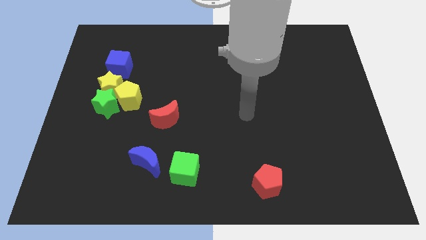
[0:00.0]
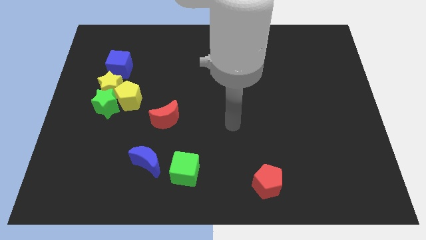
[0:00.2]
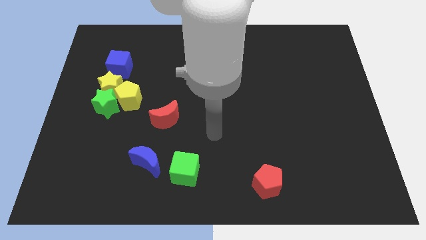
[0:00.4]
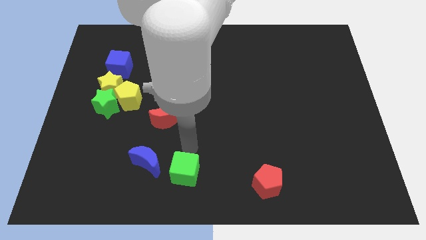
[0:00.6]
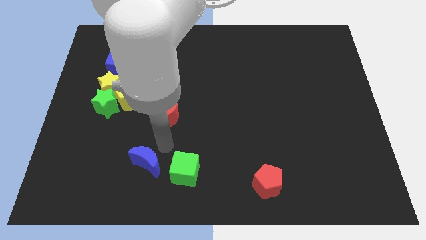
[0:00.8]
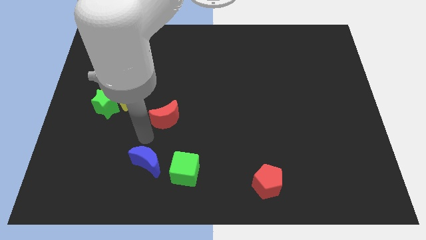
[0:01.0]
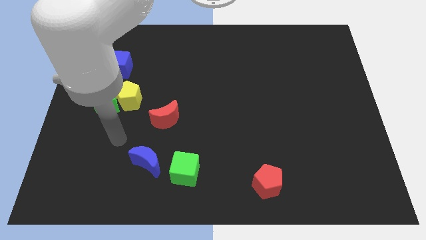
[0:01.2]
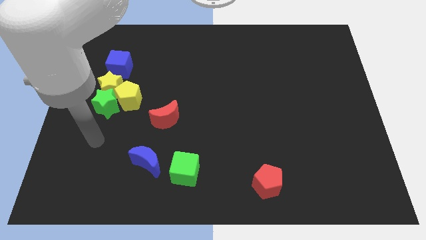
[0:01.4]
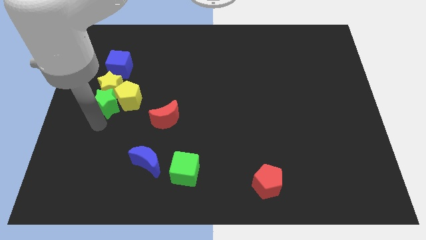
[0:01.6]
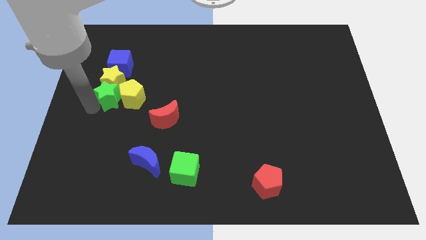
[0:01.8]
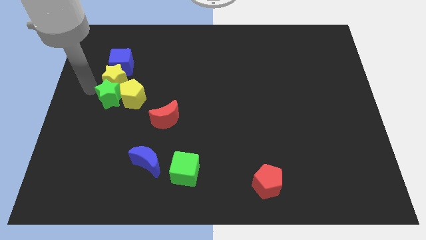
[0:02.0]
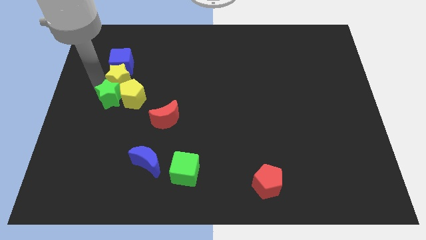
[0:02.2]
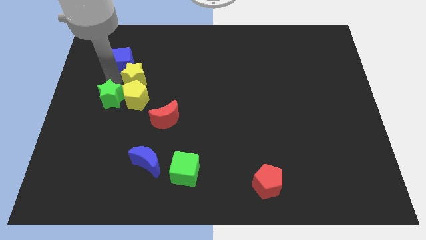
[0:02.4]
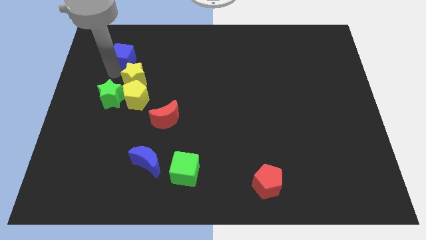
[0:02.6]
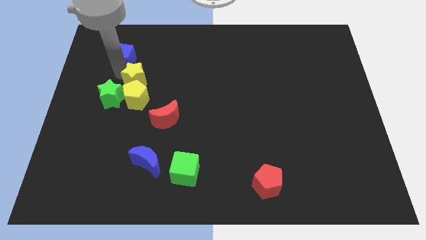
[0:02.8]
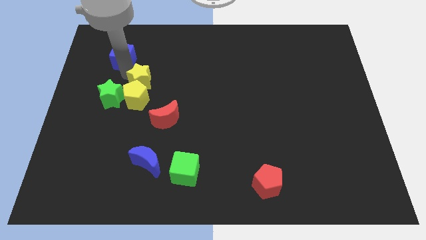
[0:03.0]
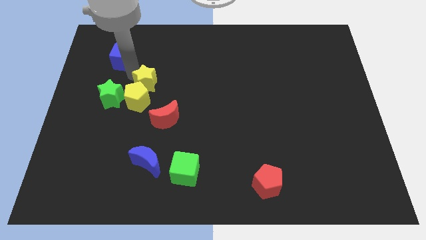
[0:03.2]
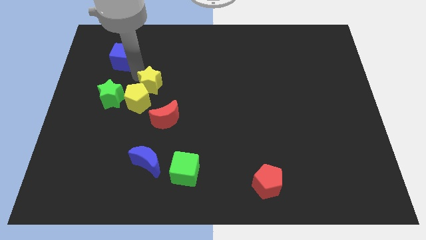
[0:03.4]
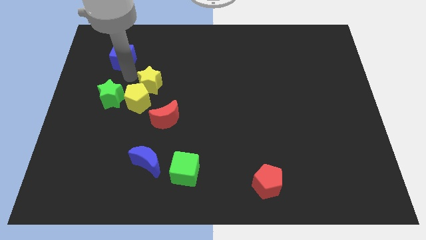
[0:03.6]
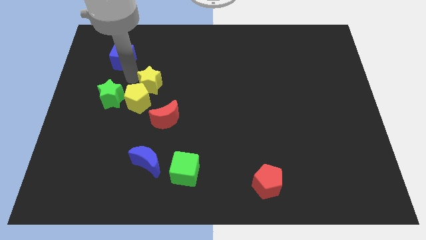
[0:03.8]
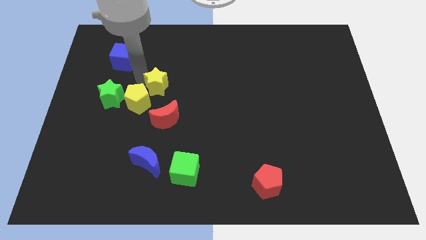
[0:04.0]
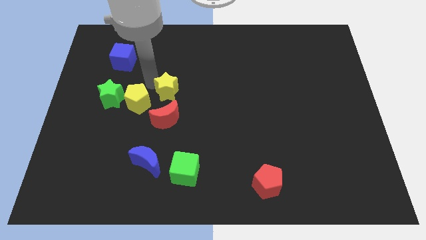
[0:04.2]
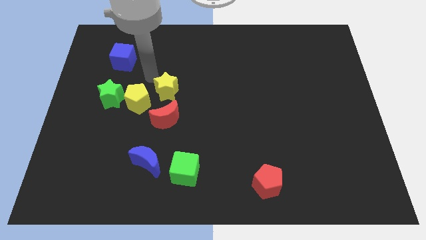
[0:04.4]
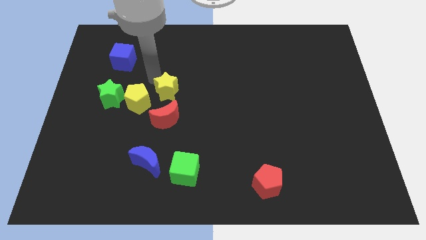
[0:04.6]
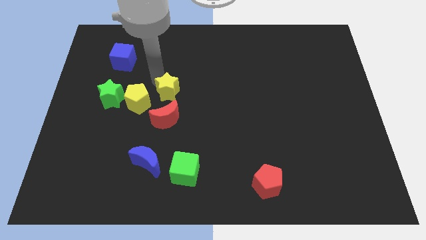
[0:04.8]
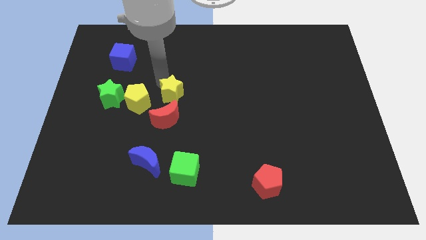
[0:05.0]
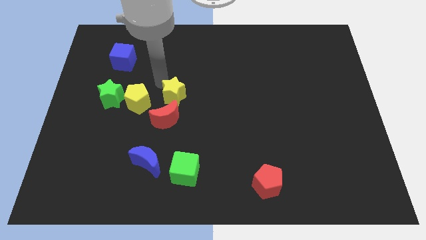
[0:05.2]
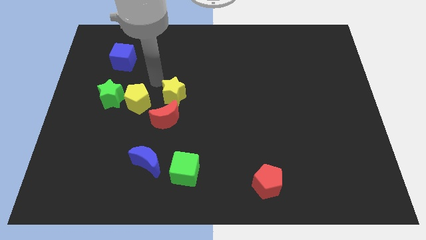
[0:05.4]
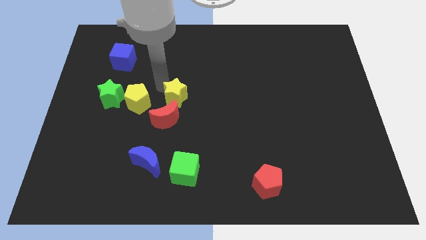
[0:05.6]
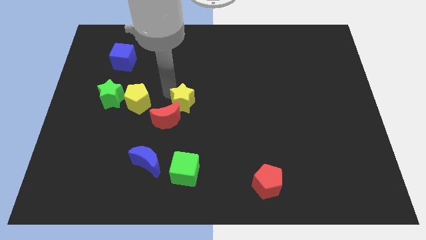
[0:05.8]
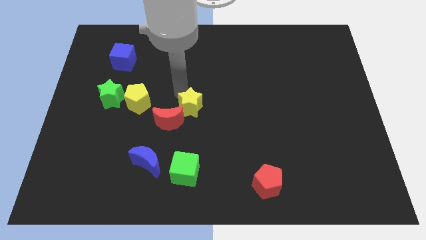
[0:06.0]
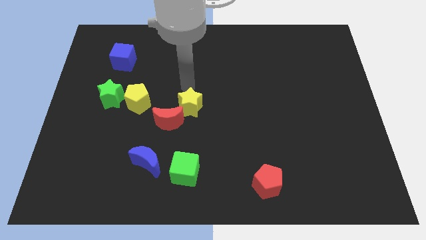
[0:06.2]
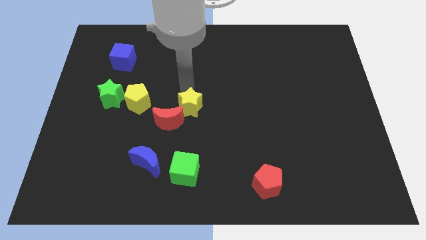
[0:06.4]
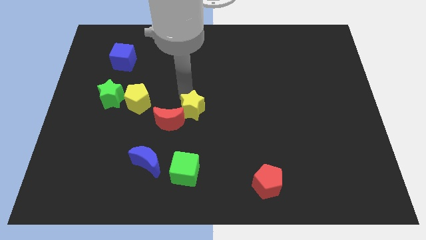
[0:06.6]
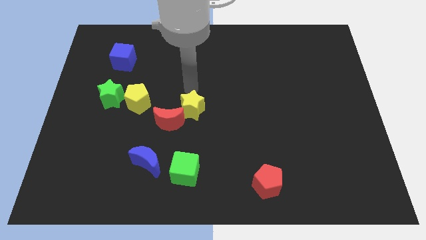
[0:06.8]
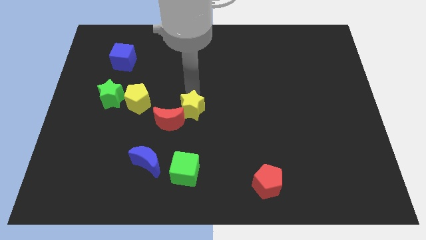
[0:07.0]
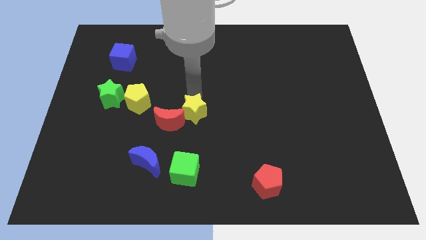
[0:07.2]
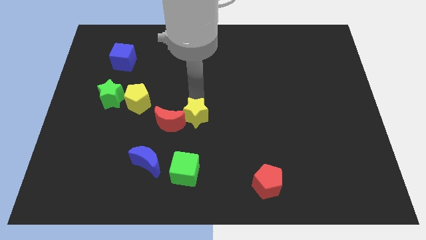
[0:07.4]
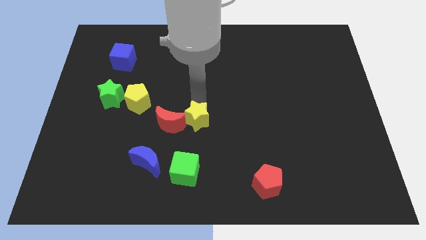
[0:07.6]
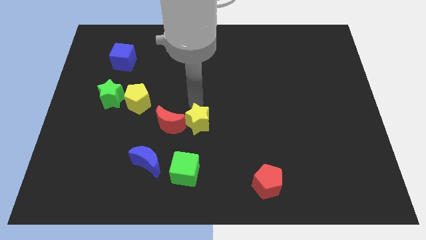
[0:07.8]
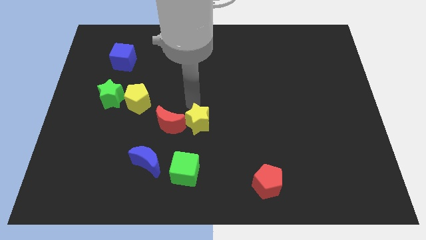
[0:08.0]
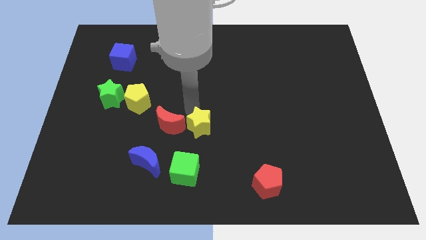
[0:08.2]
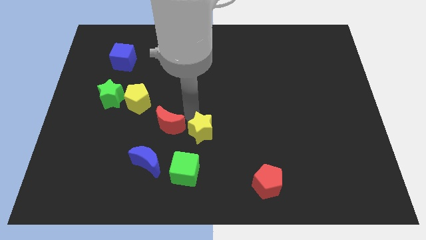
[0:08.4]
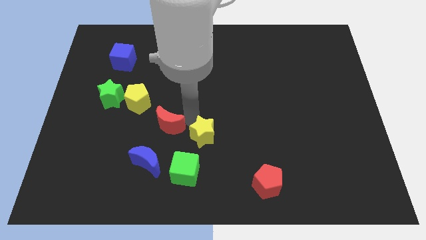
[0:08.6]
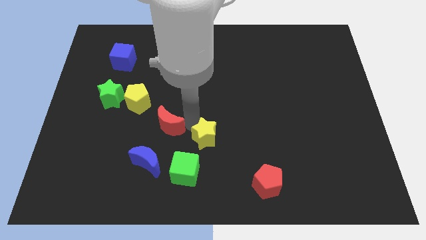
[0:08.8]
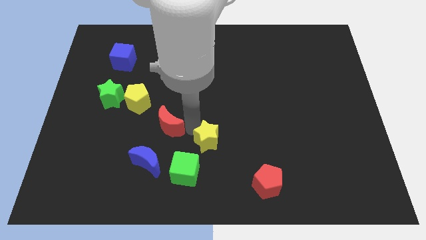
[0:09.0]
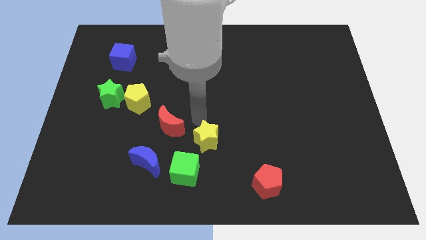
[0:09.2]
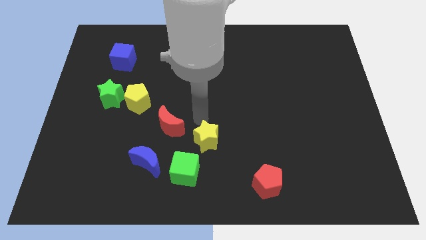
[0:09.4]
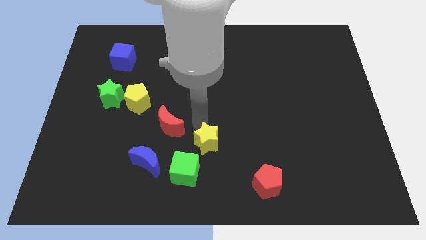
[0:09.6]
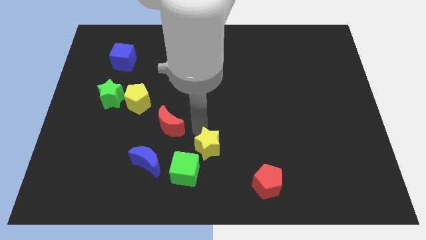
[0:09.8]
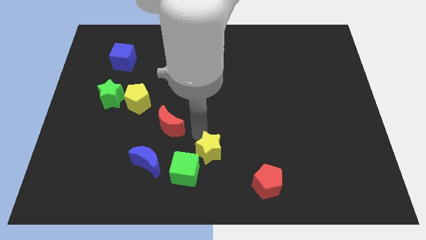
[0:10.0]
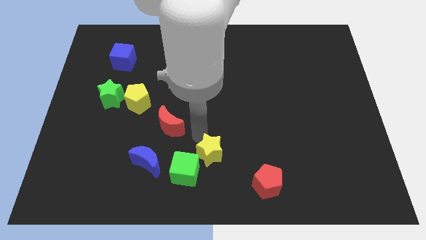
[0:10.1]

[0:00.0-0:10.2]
move the yellow star to the bottom side

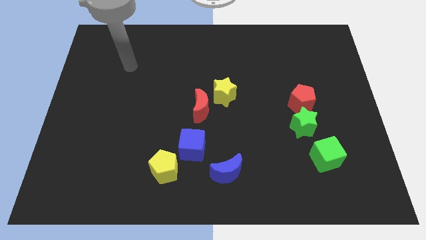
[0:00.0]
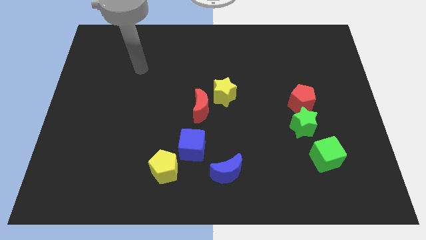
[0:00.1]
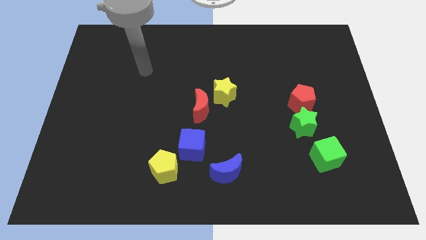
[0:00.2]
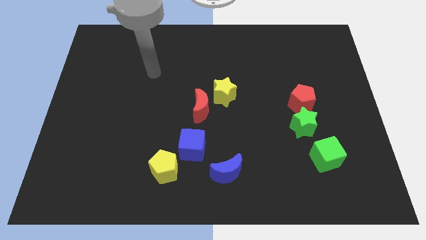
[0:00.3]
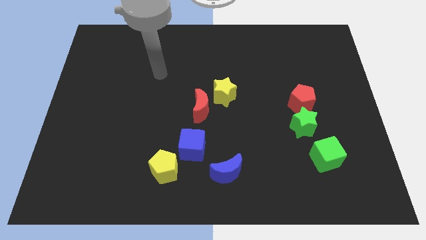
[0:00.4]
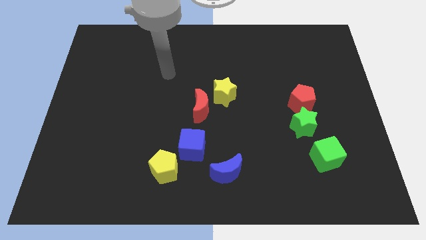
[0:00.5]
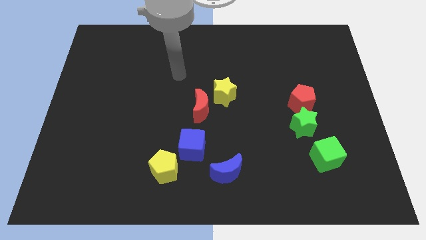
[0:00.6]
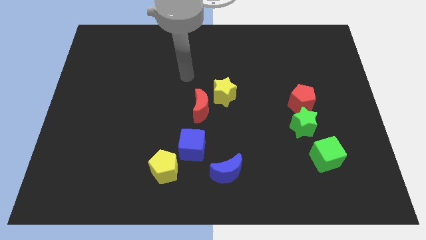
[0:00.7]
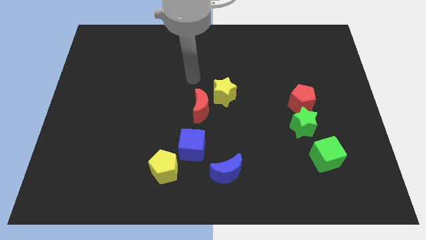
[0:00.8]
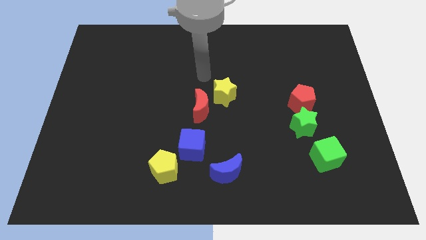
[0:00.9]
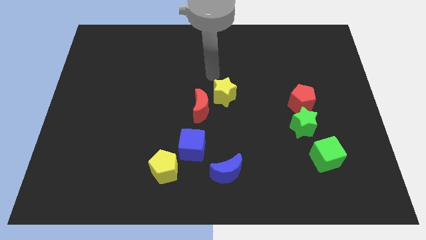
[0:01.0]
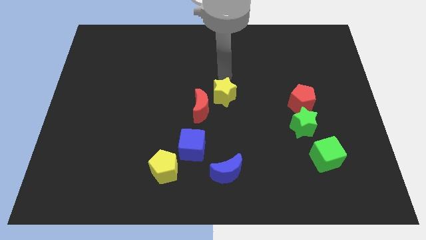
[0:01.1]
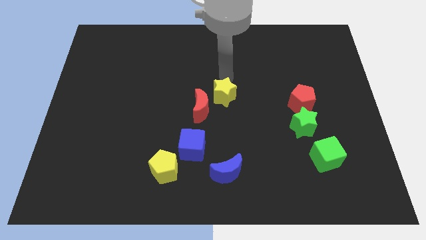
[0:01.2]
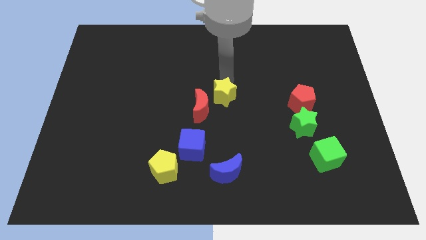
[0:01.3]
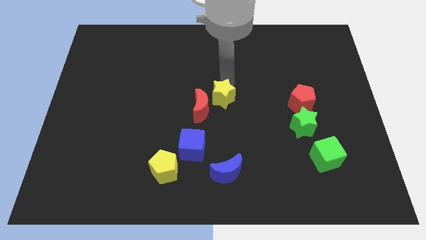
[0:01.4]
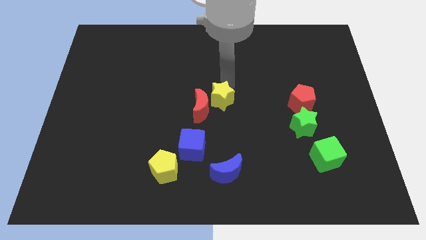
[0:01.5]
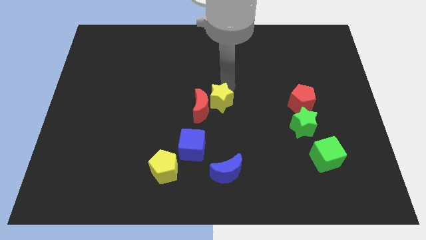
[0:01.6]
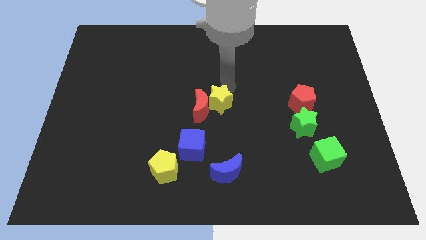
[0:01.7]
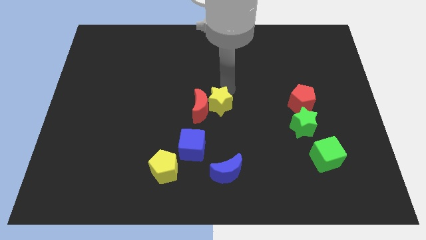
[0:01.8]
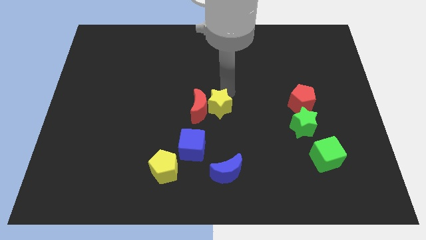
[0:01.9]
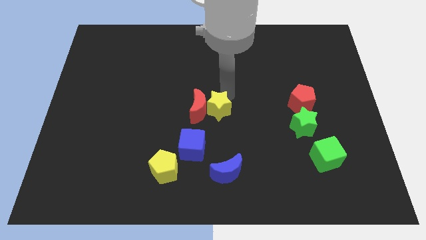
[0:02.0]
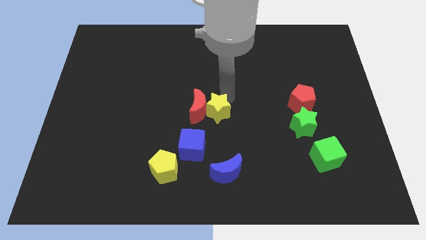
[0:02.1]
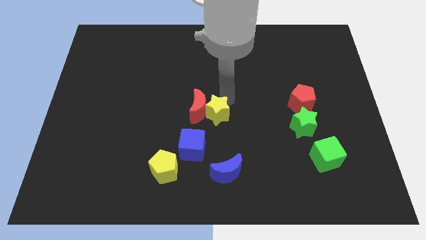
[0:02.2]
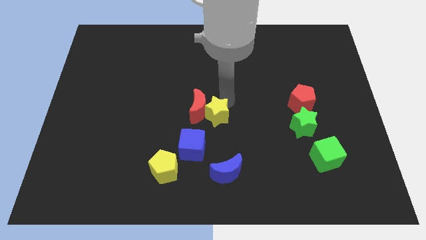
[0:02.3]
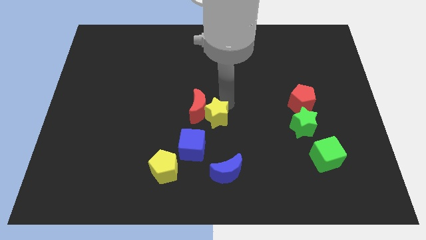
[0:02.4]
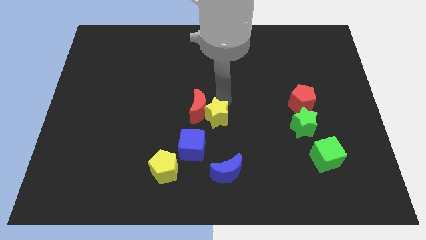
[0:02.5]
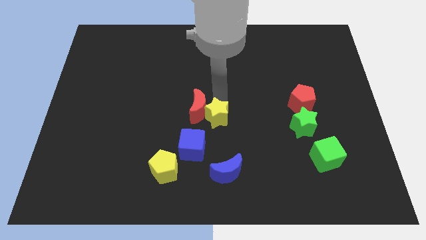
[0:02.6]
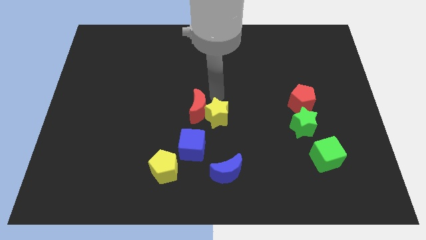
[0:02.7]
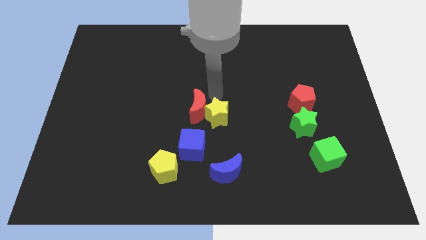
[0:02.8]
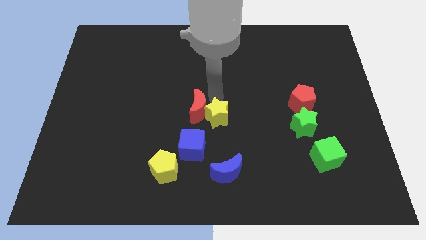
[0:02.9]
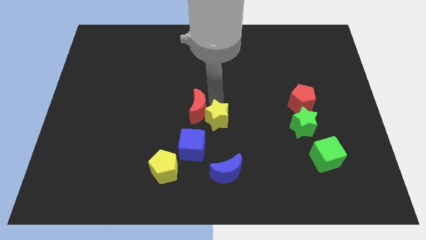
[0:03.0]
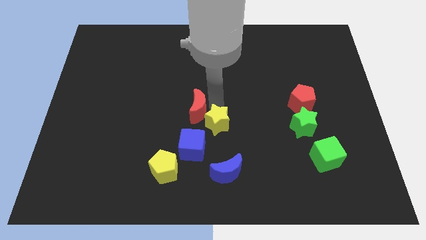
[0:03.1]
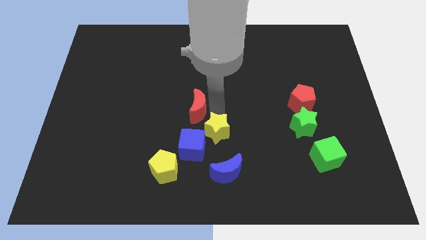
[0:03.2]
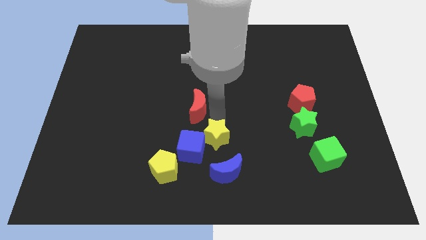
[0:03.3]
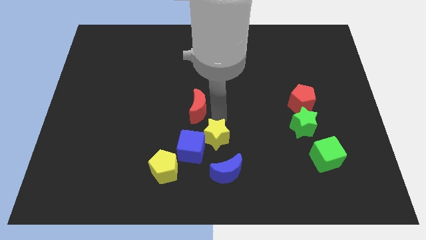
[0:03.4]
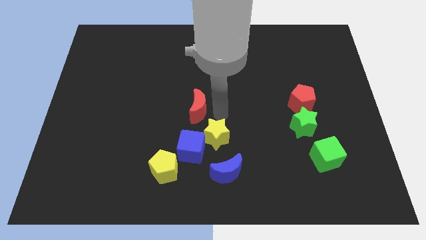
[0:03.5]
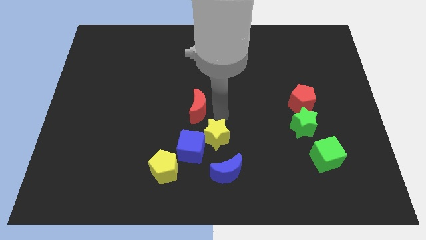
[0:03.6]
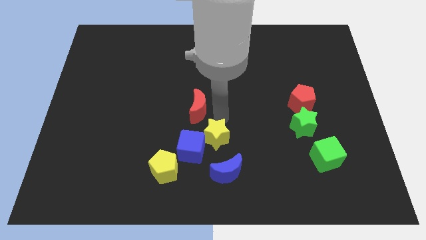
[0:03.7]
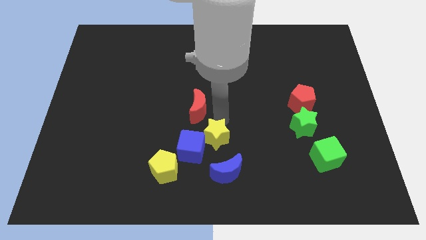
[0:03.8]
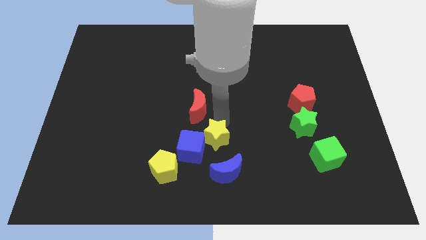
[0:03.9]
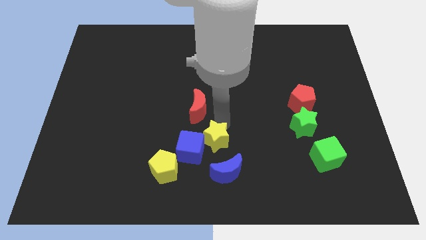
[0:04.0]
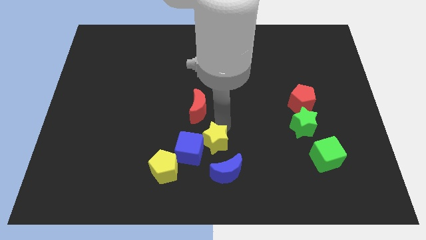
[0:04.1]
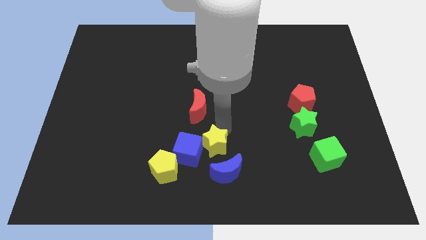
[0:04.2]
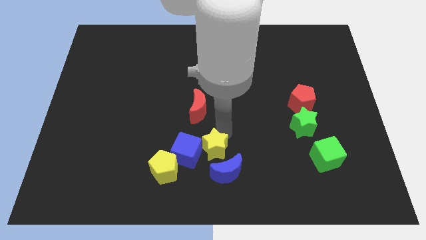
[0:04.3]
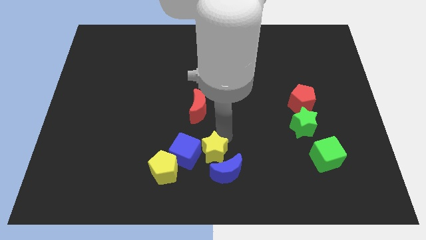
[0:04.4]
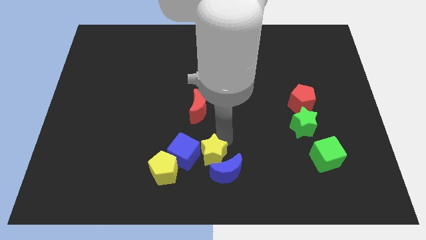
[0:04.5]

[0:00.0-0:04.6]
put the yellow star to the bottom
